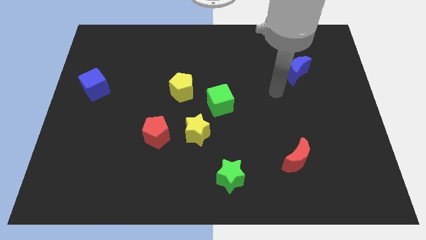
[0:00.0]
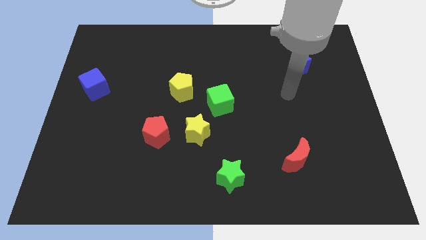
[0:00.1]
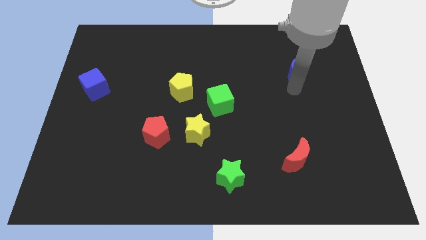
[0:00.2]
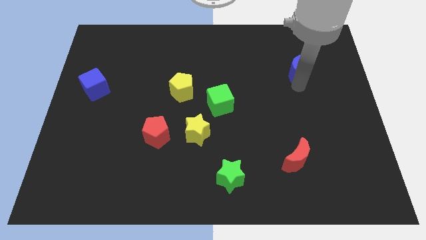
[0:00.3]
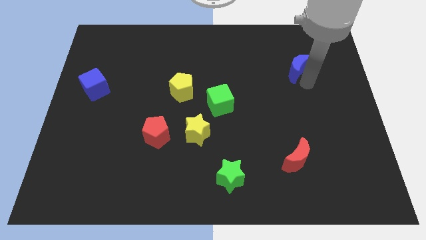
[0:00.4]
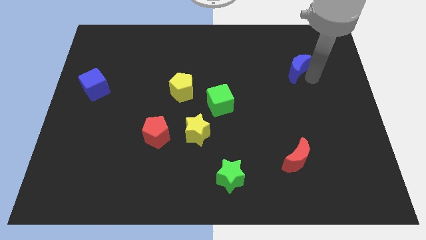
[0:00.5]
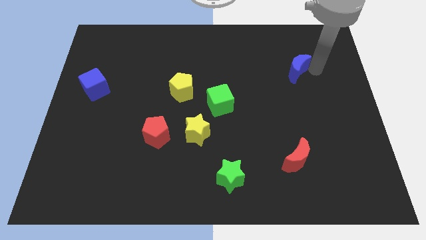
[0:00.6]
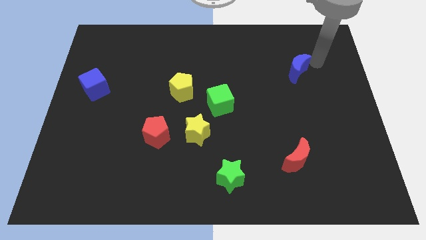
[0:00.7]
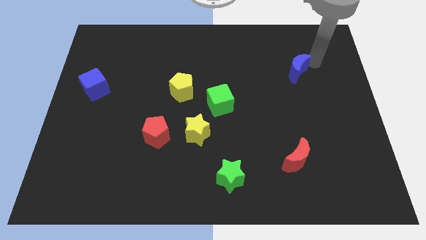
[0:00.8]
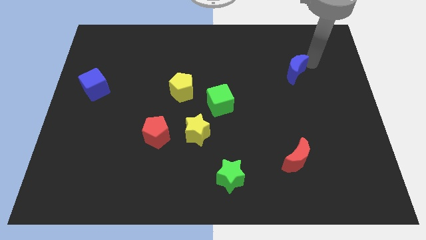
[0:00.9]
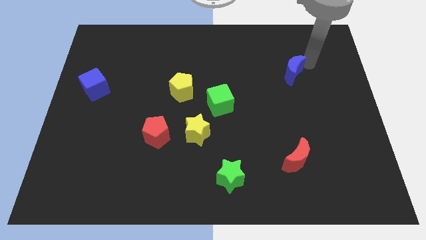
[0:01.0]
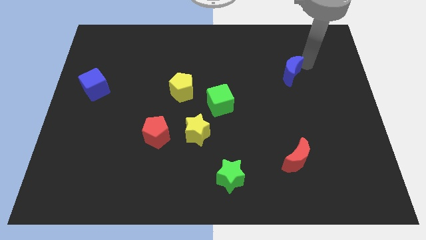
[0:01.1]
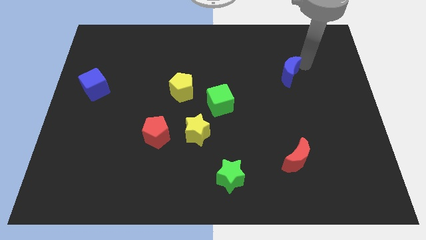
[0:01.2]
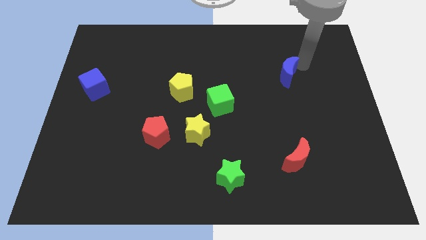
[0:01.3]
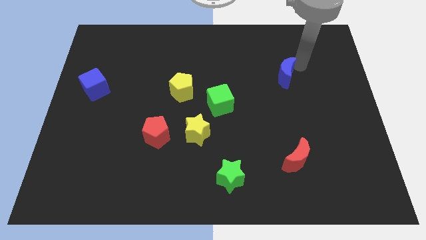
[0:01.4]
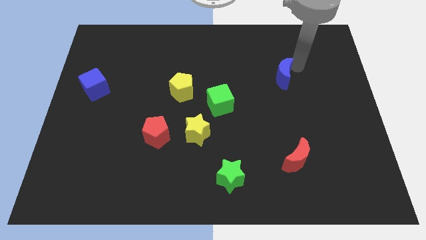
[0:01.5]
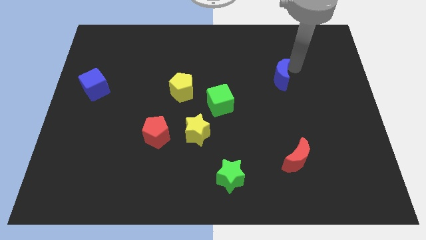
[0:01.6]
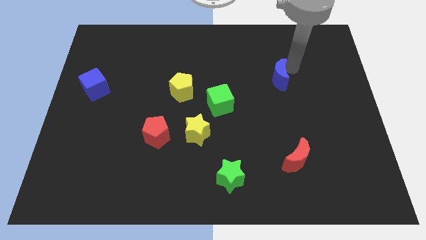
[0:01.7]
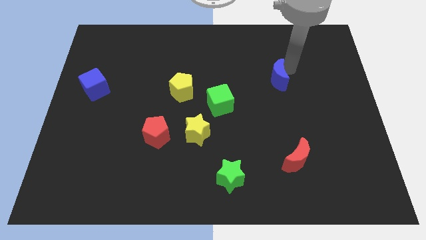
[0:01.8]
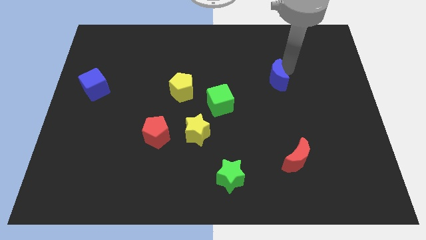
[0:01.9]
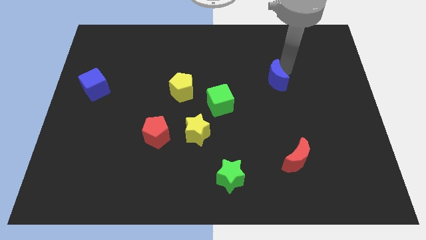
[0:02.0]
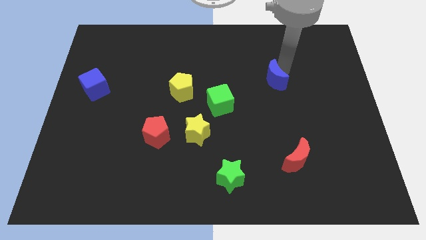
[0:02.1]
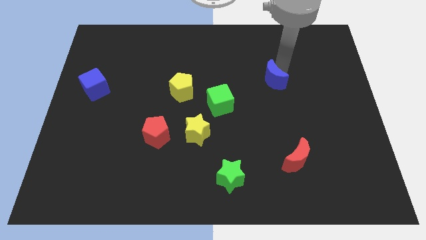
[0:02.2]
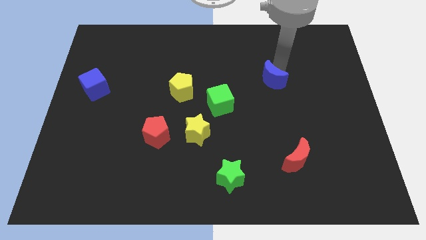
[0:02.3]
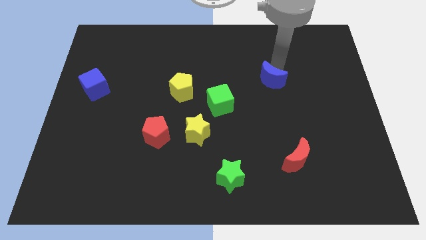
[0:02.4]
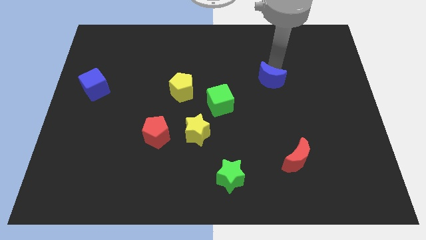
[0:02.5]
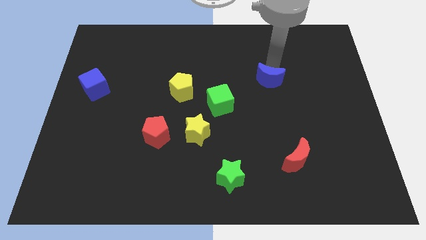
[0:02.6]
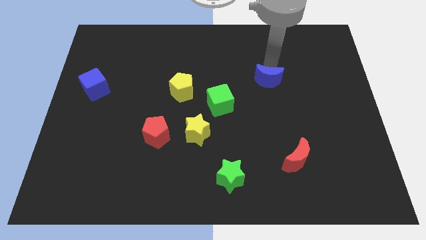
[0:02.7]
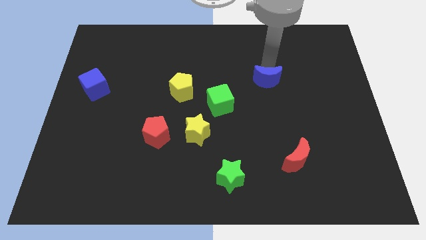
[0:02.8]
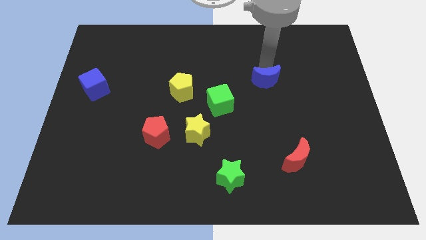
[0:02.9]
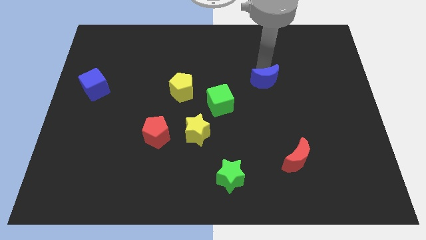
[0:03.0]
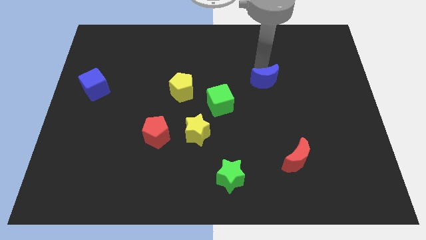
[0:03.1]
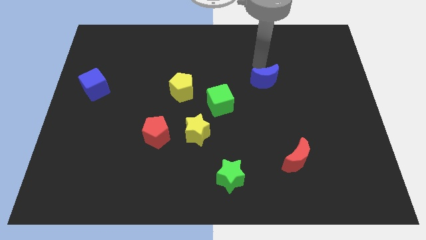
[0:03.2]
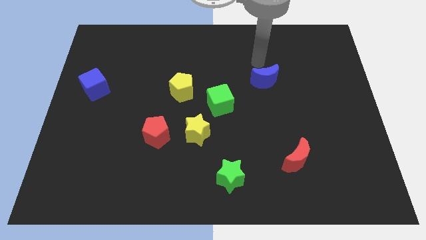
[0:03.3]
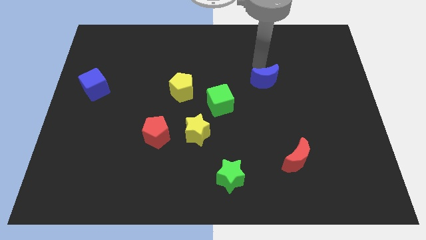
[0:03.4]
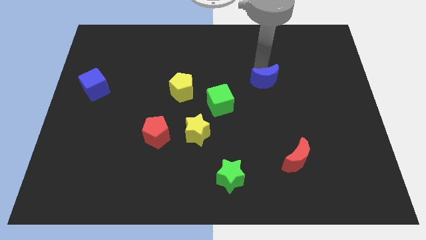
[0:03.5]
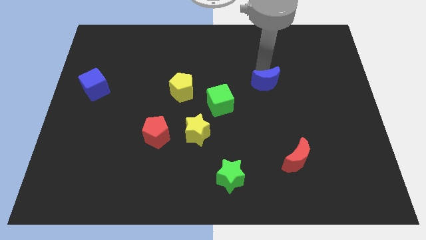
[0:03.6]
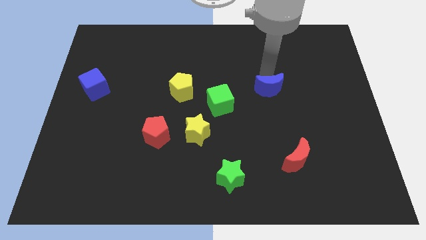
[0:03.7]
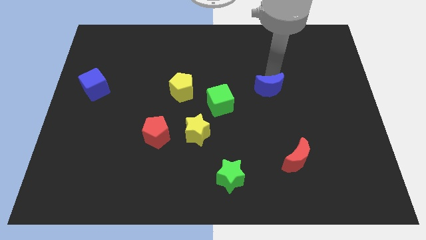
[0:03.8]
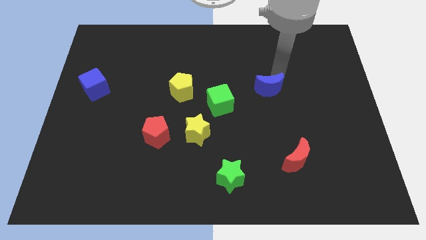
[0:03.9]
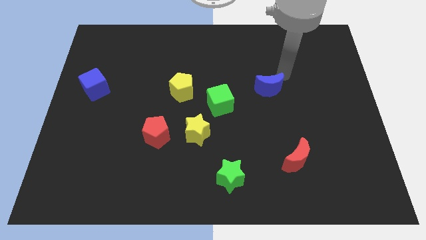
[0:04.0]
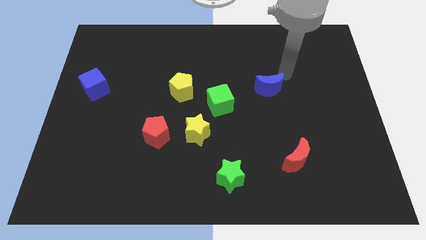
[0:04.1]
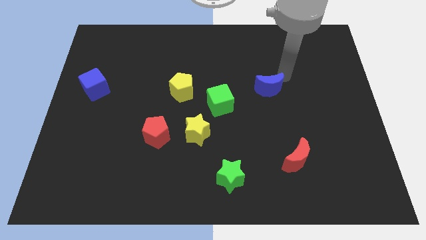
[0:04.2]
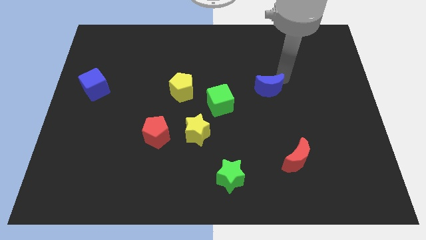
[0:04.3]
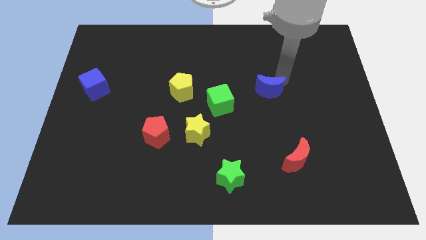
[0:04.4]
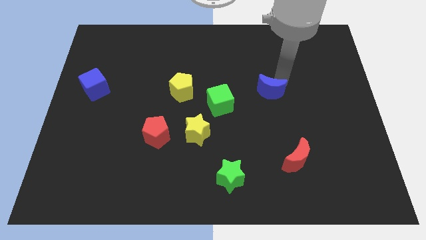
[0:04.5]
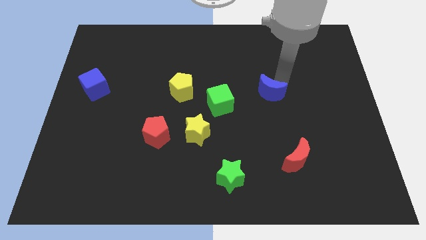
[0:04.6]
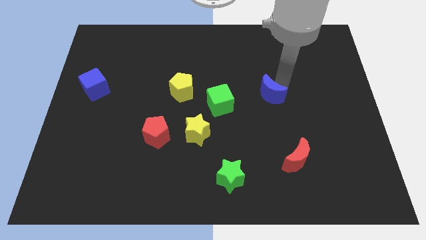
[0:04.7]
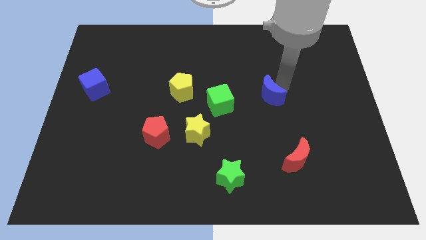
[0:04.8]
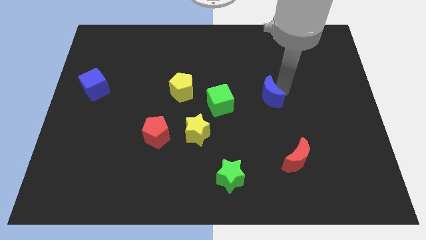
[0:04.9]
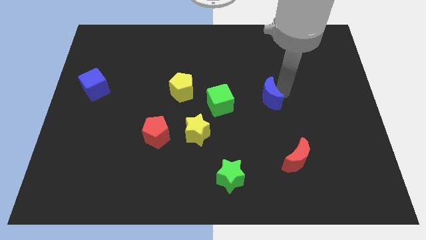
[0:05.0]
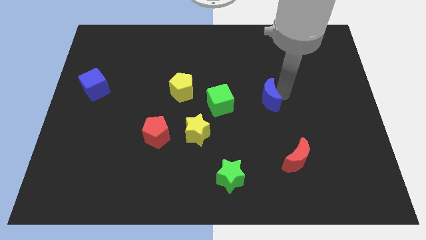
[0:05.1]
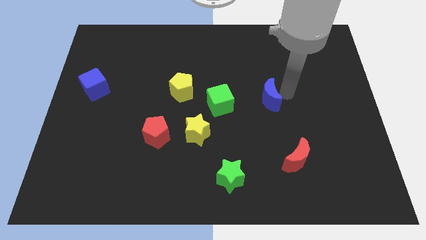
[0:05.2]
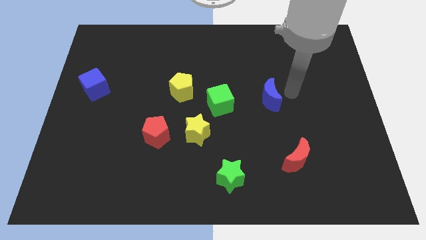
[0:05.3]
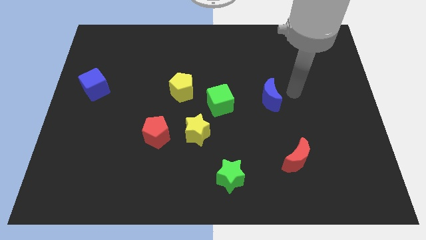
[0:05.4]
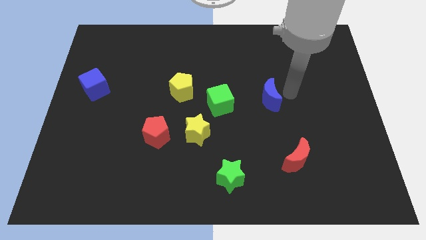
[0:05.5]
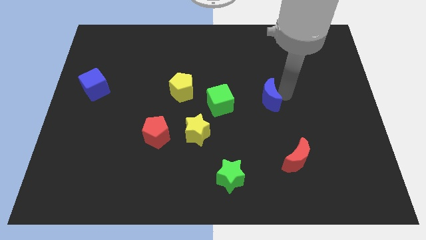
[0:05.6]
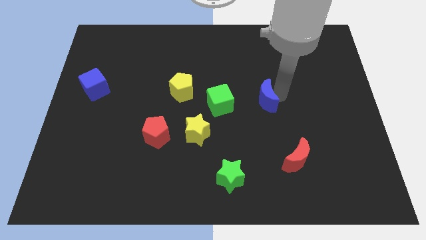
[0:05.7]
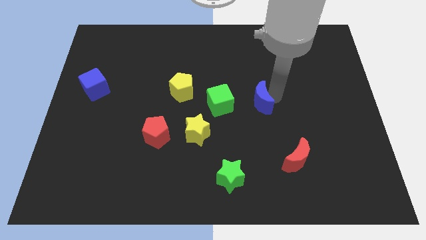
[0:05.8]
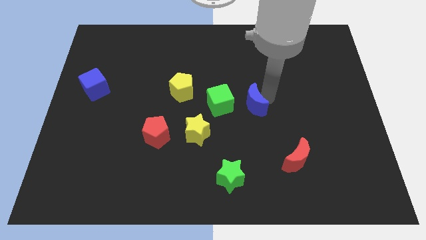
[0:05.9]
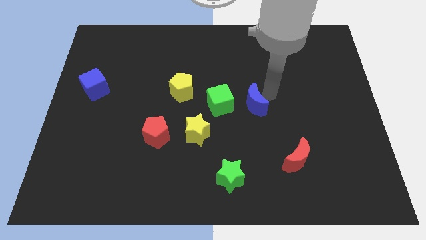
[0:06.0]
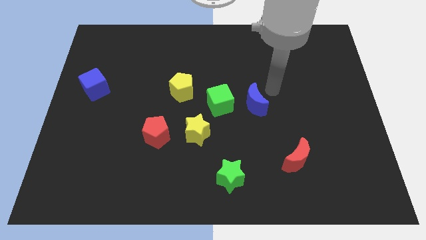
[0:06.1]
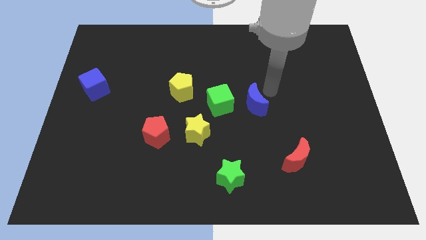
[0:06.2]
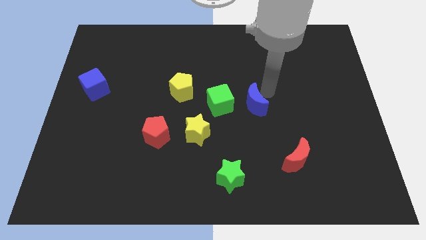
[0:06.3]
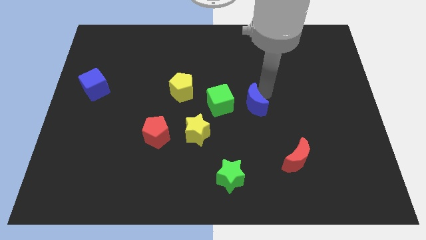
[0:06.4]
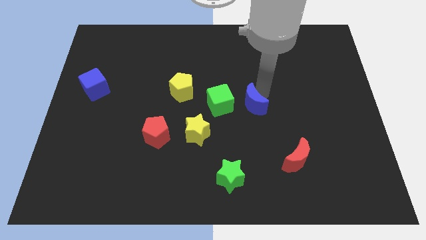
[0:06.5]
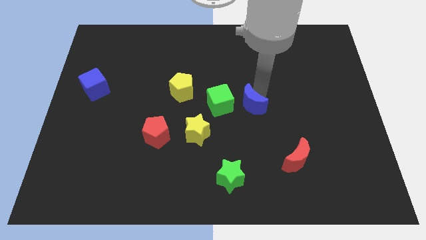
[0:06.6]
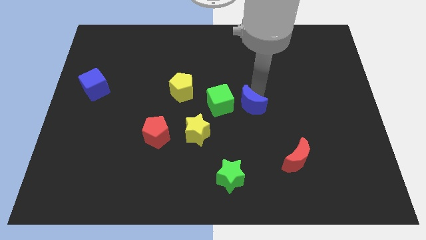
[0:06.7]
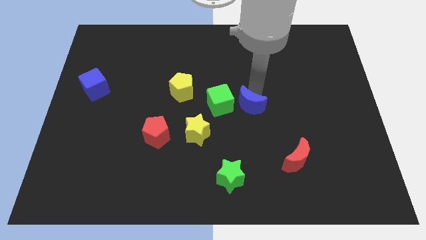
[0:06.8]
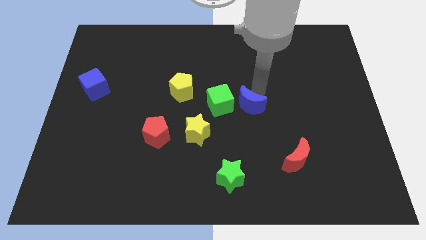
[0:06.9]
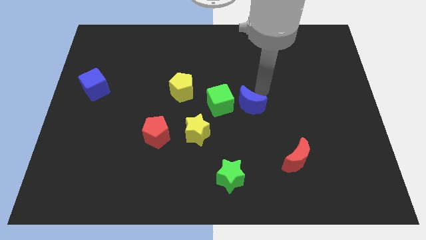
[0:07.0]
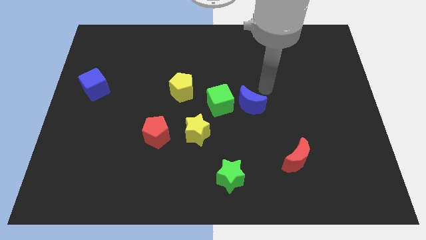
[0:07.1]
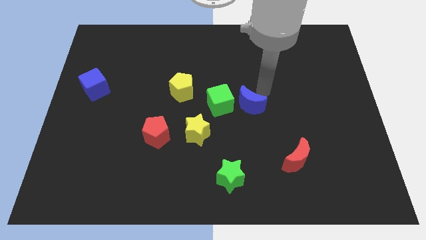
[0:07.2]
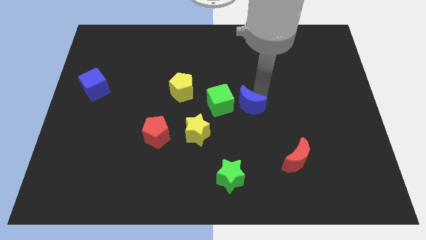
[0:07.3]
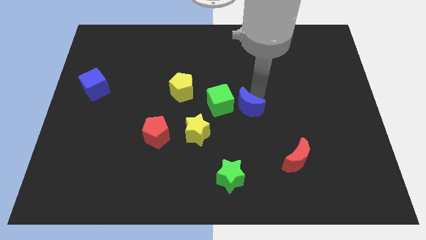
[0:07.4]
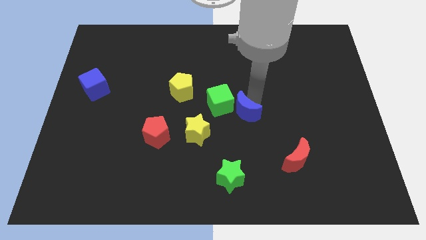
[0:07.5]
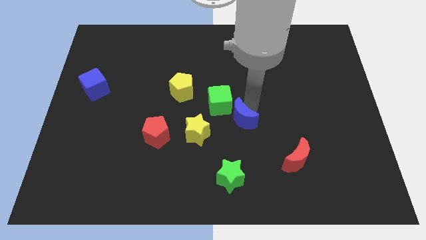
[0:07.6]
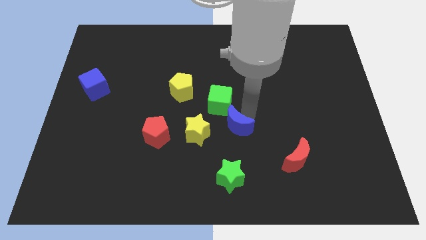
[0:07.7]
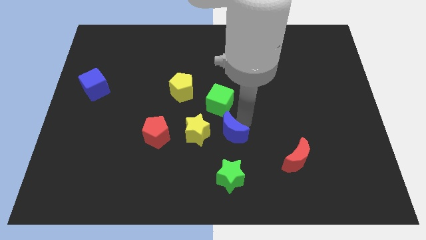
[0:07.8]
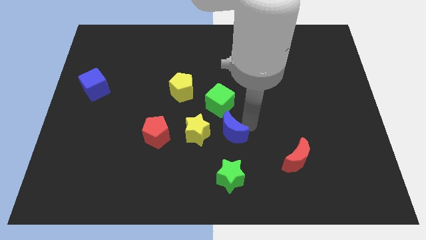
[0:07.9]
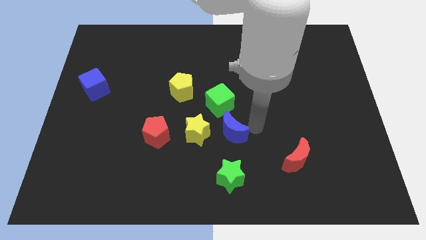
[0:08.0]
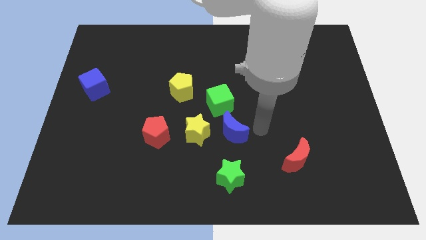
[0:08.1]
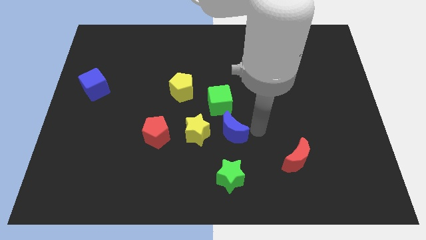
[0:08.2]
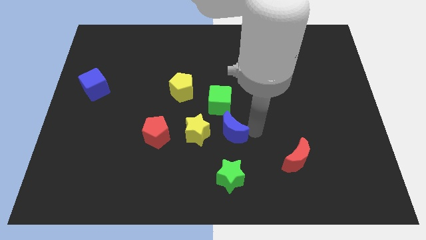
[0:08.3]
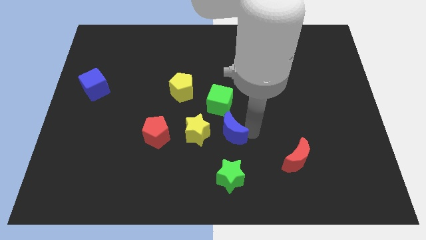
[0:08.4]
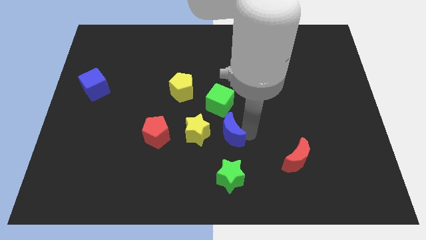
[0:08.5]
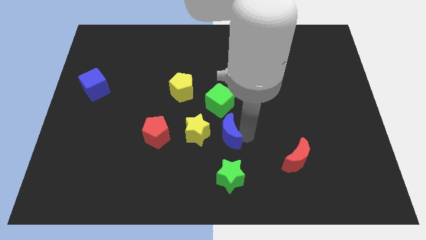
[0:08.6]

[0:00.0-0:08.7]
push the blue moon right of the red pentagon
